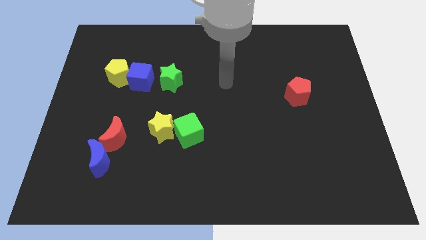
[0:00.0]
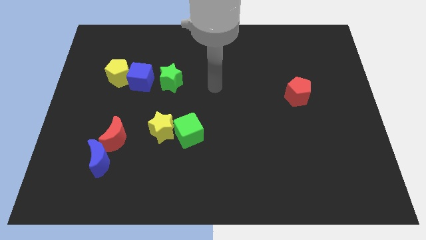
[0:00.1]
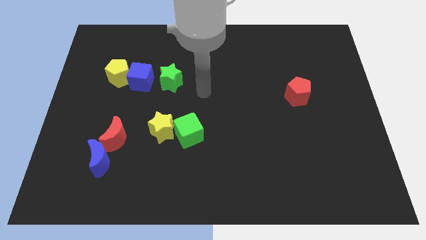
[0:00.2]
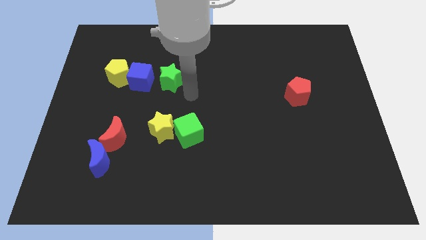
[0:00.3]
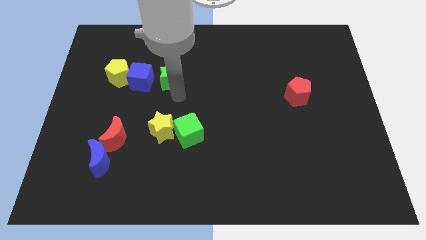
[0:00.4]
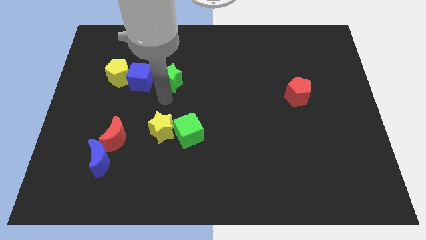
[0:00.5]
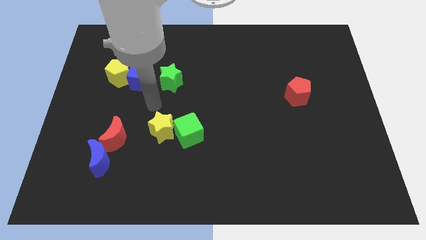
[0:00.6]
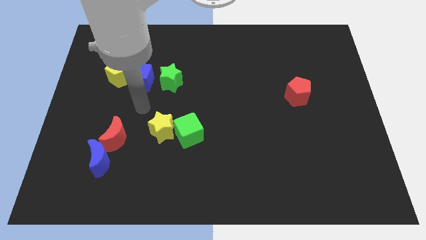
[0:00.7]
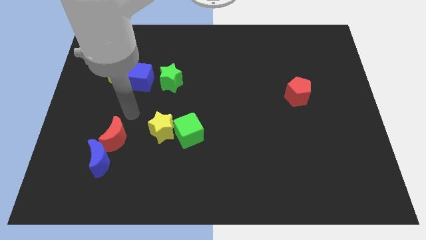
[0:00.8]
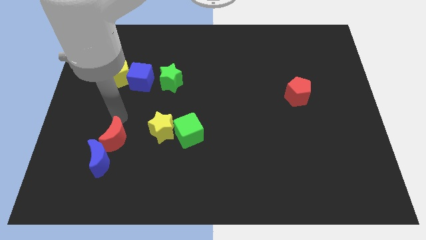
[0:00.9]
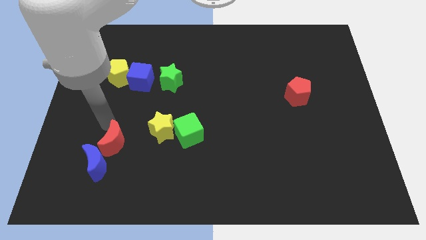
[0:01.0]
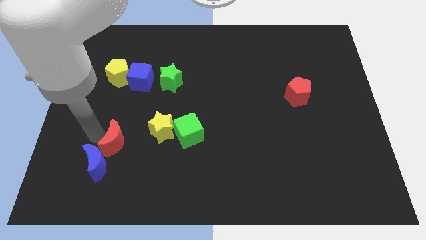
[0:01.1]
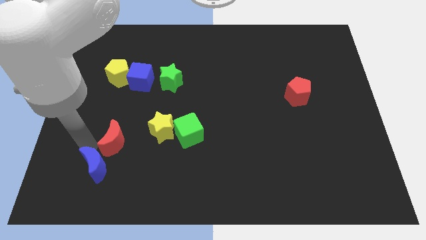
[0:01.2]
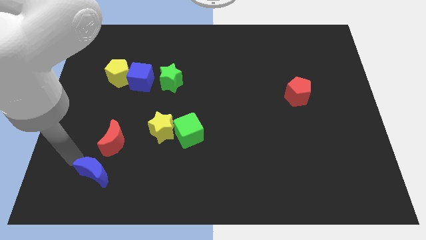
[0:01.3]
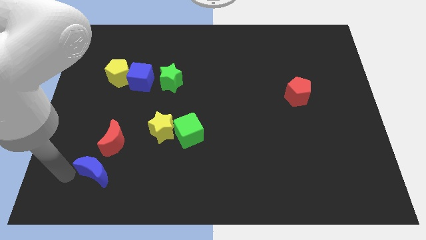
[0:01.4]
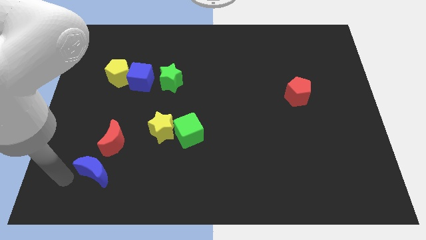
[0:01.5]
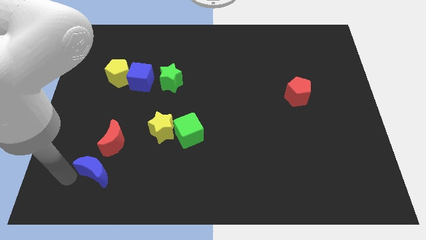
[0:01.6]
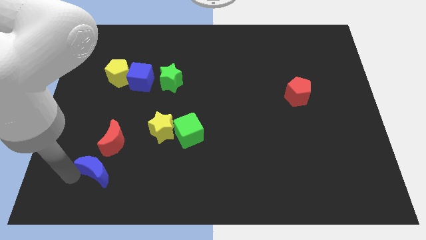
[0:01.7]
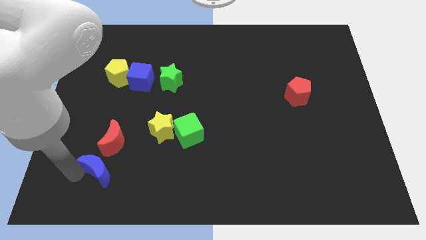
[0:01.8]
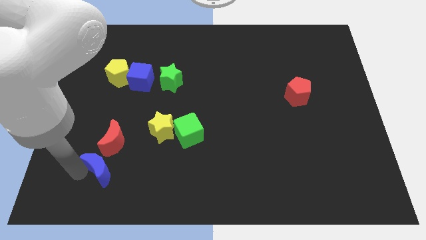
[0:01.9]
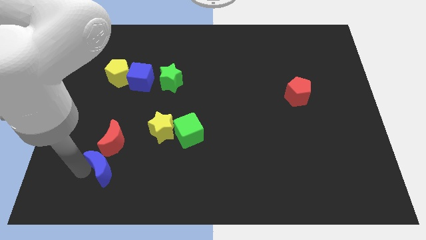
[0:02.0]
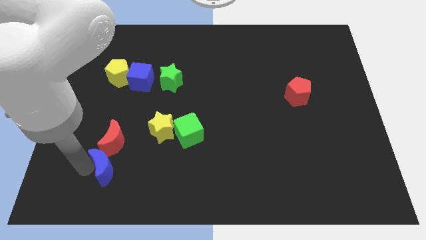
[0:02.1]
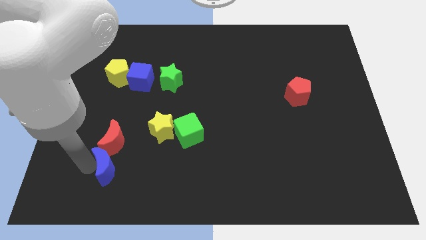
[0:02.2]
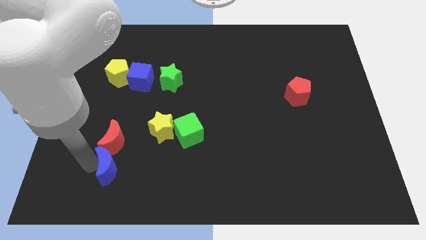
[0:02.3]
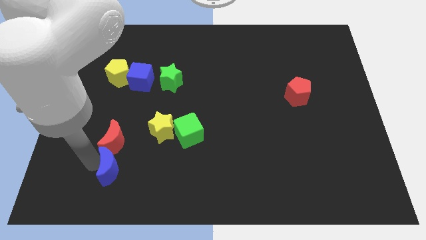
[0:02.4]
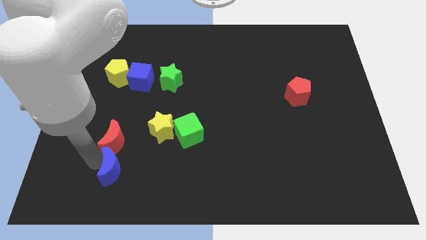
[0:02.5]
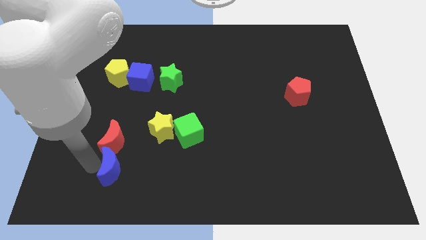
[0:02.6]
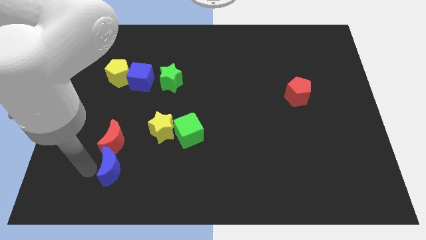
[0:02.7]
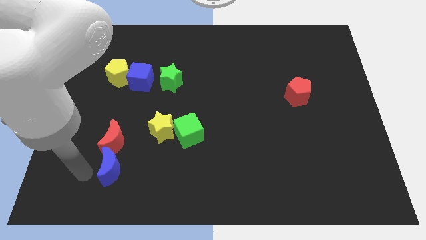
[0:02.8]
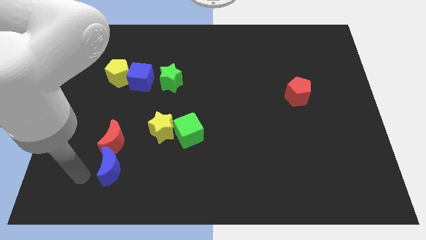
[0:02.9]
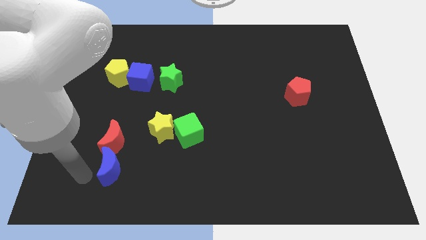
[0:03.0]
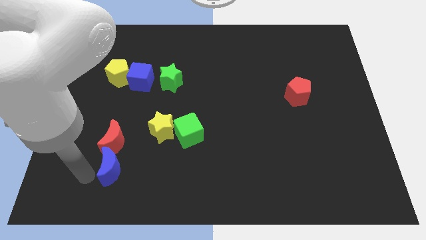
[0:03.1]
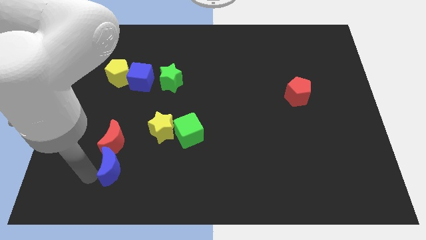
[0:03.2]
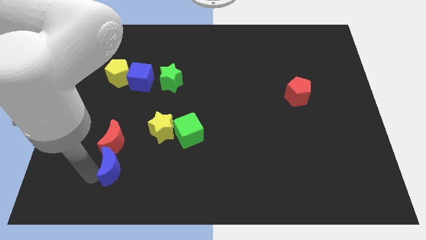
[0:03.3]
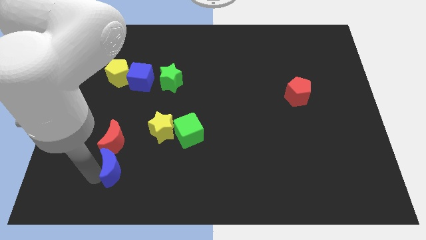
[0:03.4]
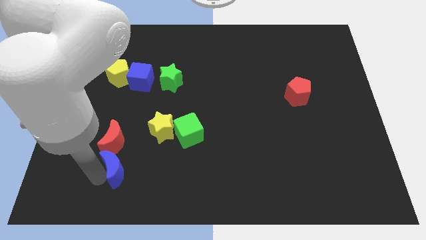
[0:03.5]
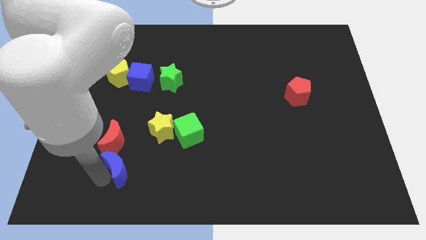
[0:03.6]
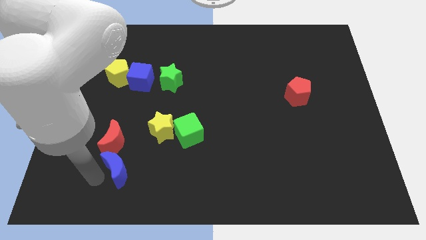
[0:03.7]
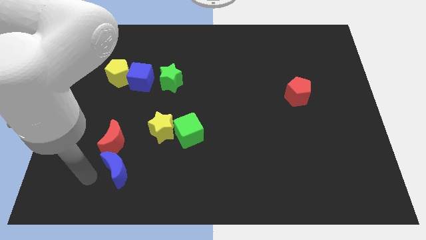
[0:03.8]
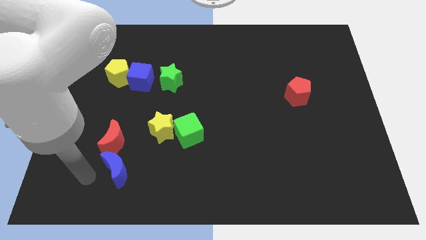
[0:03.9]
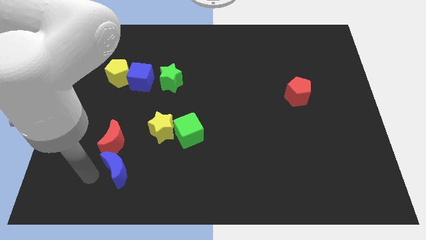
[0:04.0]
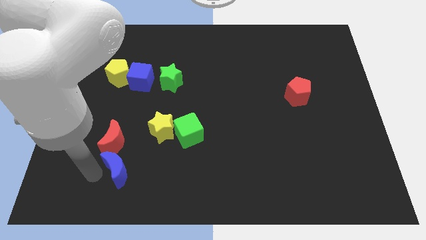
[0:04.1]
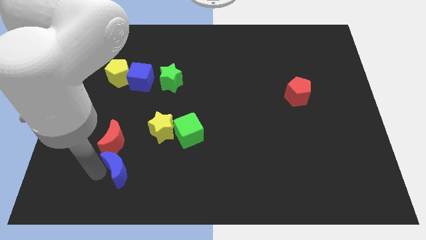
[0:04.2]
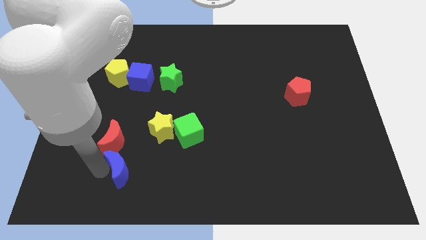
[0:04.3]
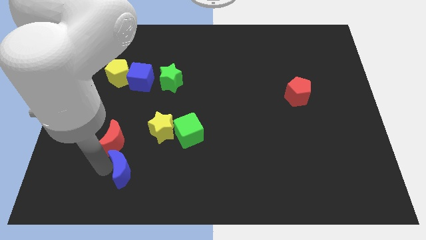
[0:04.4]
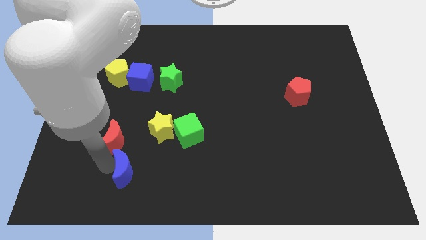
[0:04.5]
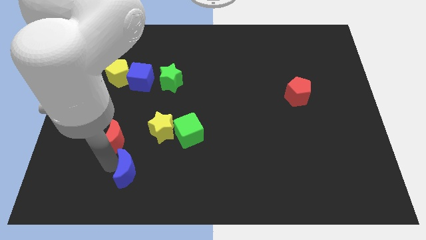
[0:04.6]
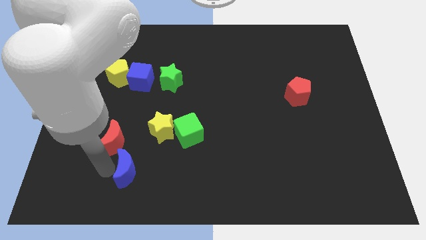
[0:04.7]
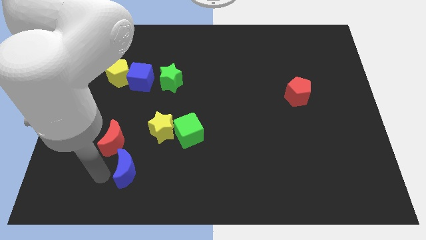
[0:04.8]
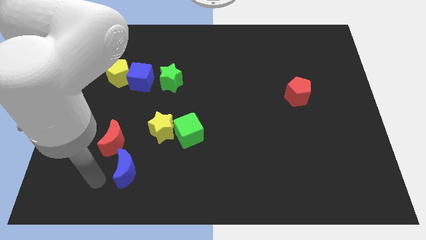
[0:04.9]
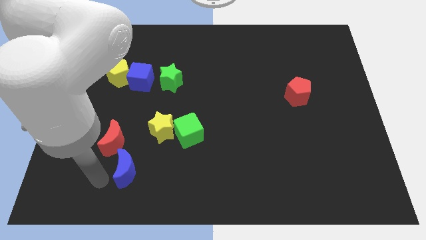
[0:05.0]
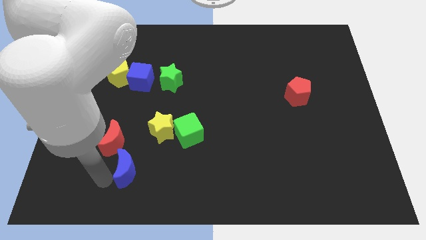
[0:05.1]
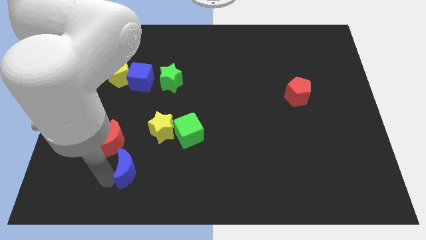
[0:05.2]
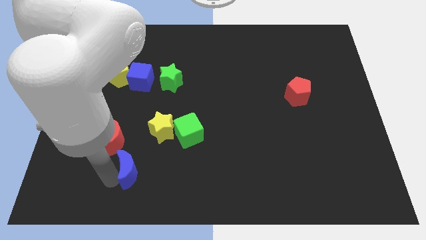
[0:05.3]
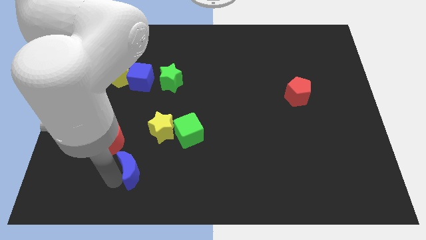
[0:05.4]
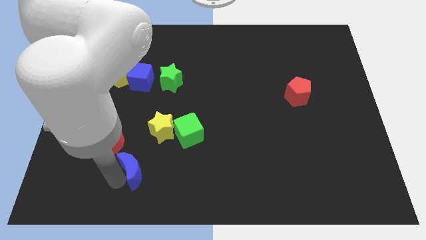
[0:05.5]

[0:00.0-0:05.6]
push the blue moon right a bit

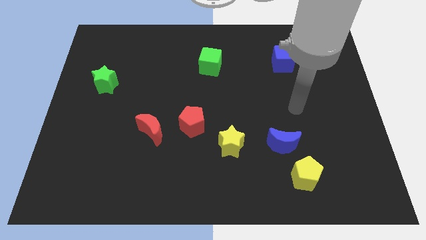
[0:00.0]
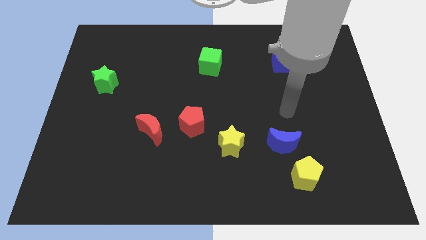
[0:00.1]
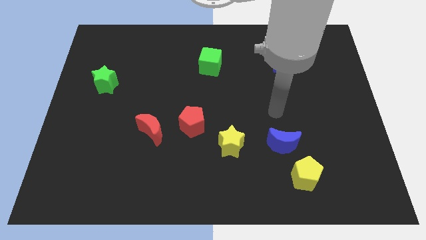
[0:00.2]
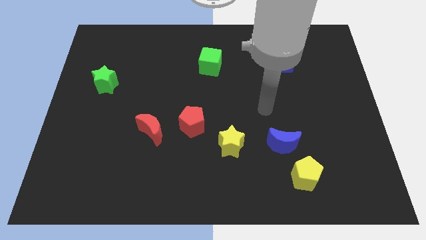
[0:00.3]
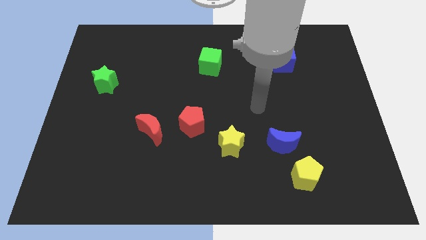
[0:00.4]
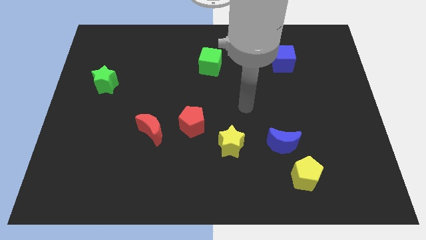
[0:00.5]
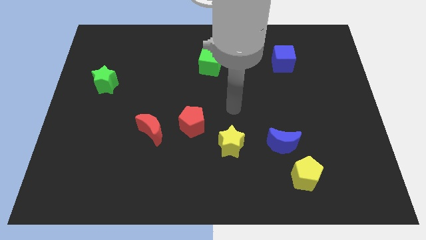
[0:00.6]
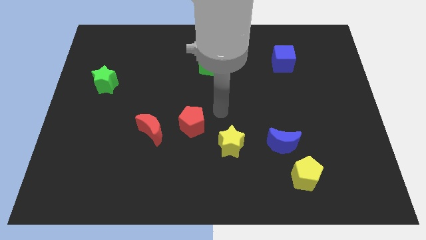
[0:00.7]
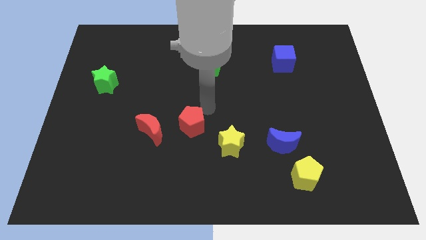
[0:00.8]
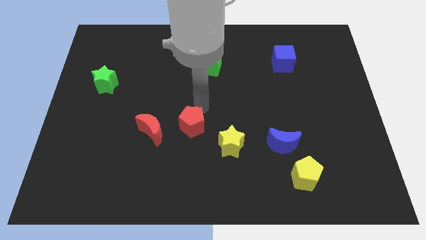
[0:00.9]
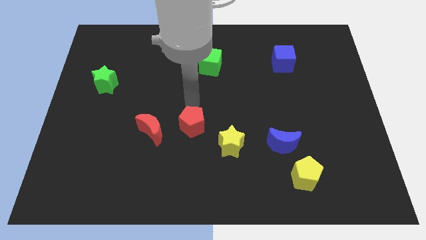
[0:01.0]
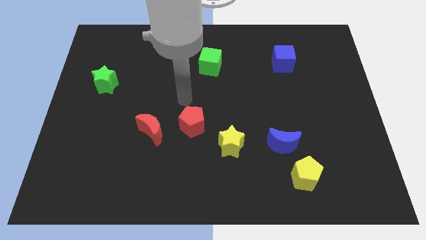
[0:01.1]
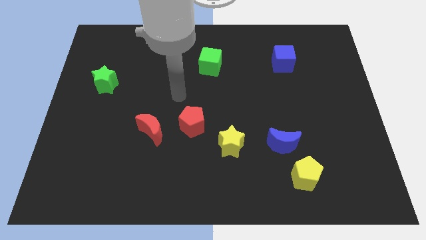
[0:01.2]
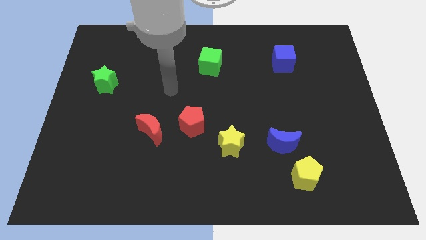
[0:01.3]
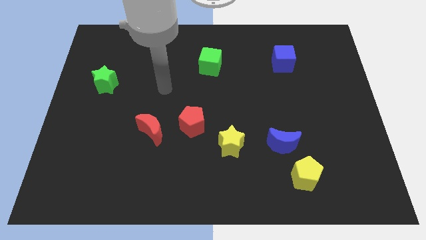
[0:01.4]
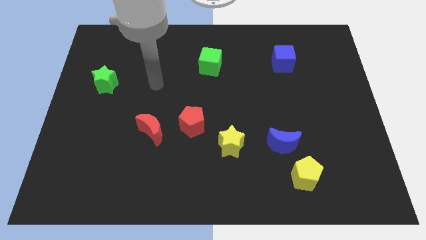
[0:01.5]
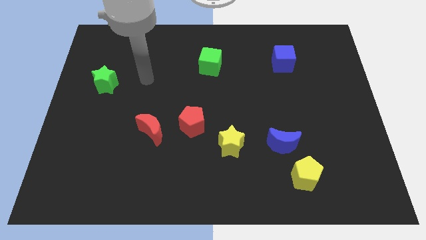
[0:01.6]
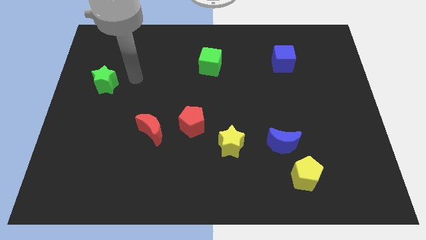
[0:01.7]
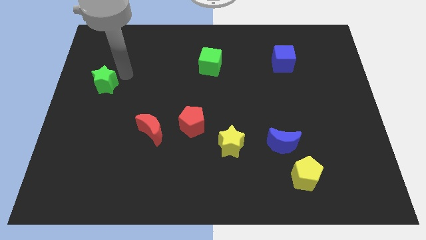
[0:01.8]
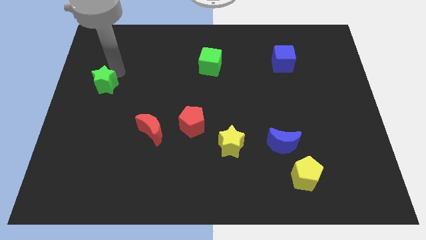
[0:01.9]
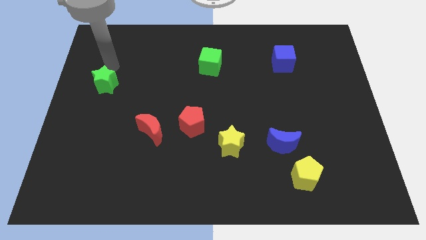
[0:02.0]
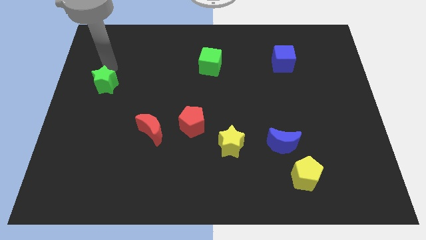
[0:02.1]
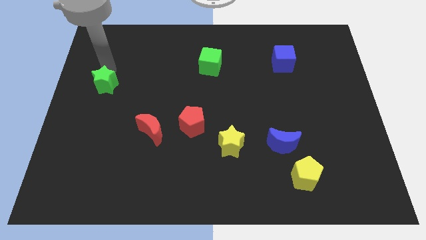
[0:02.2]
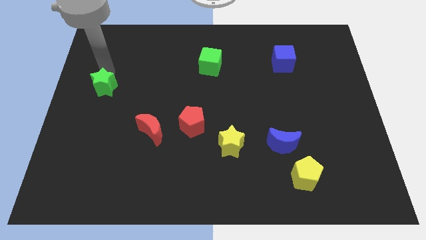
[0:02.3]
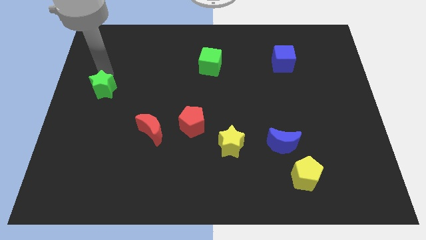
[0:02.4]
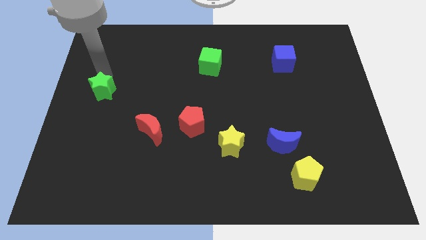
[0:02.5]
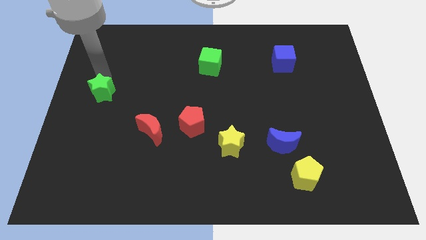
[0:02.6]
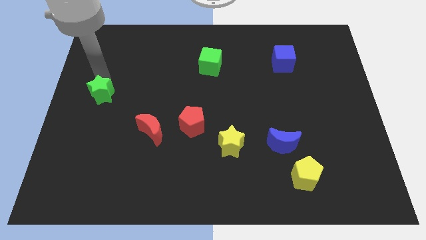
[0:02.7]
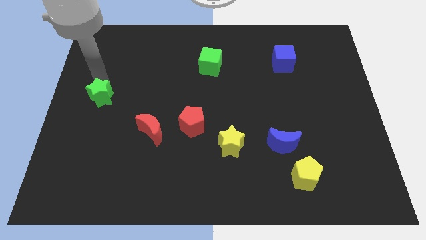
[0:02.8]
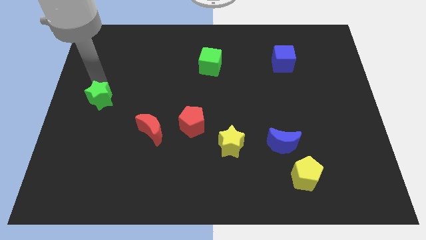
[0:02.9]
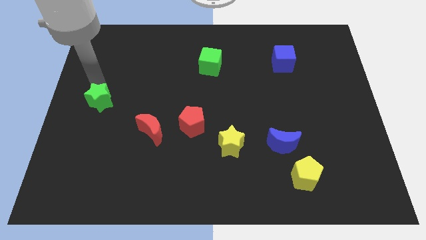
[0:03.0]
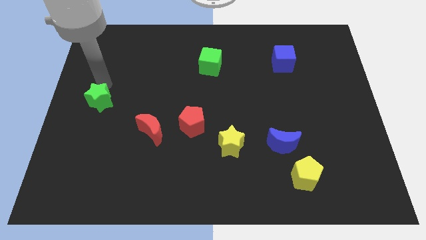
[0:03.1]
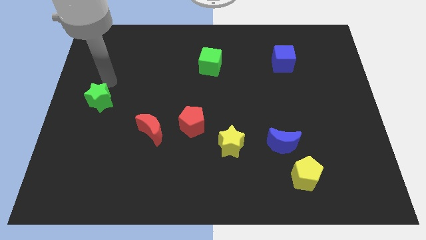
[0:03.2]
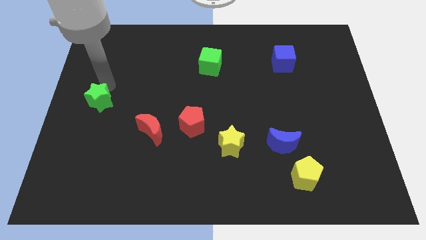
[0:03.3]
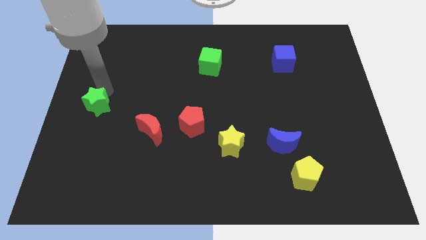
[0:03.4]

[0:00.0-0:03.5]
push the green star somewhat down
